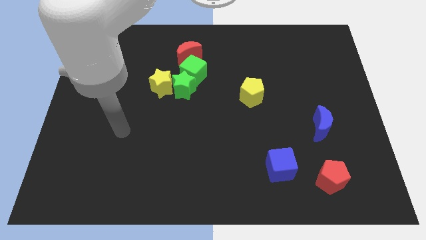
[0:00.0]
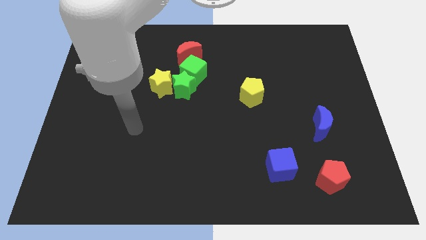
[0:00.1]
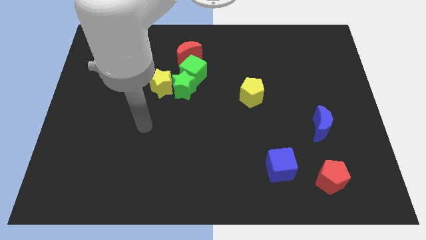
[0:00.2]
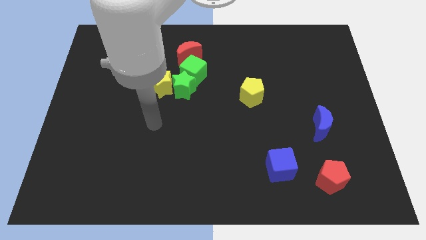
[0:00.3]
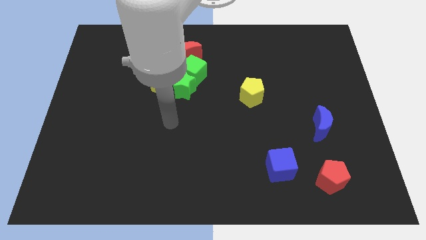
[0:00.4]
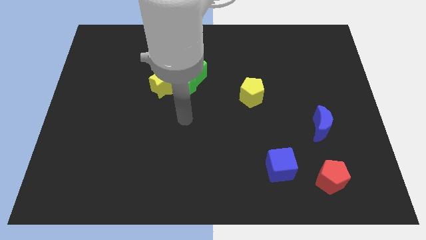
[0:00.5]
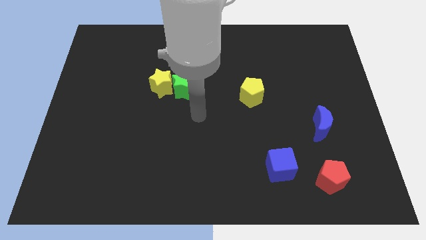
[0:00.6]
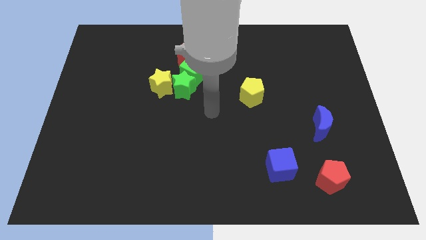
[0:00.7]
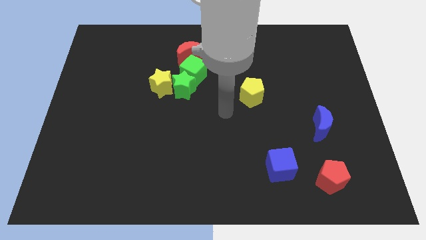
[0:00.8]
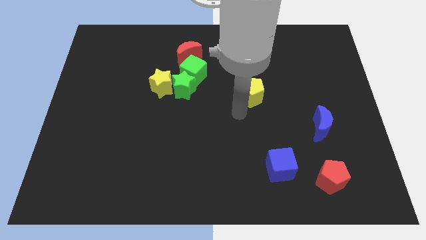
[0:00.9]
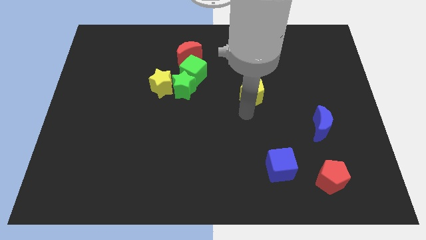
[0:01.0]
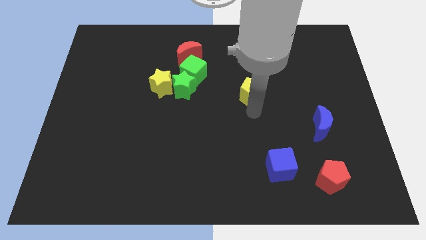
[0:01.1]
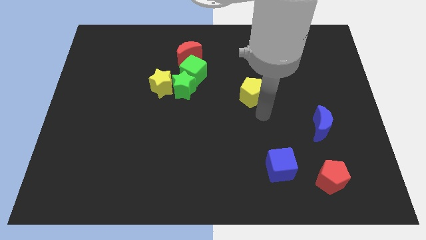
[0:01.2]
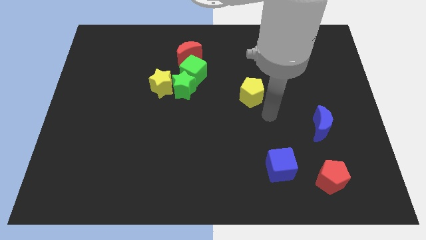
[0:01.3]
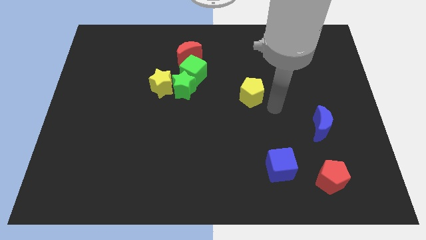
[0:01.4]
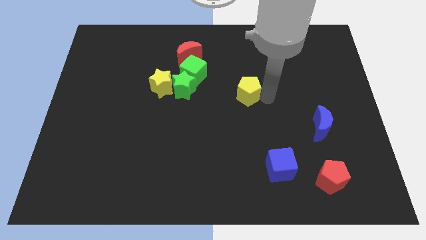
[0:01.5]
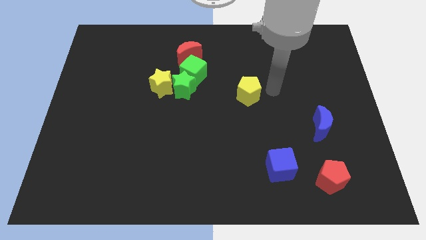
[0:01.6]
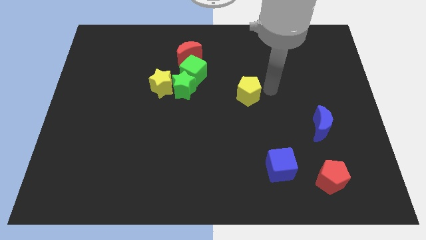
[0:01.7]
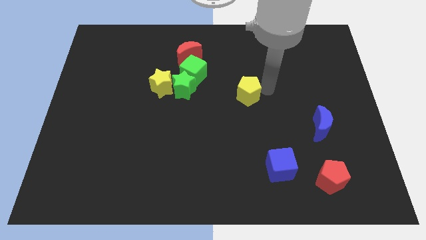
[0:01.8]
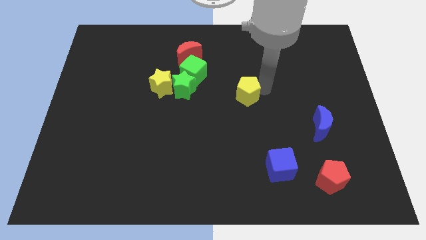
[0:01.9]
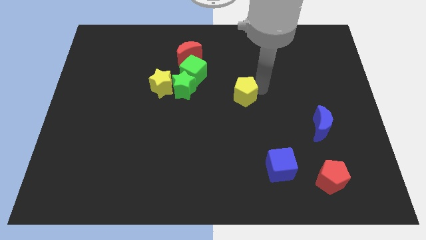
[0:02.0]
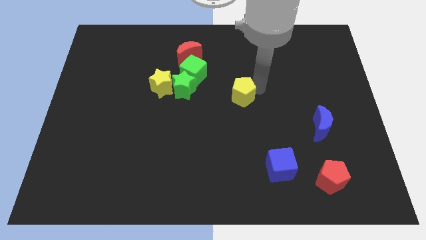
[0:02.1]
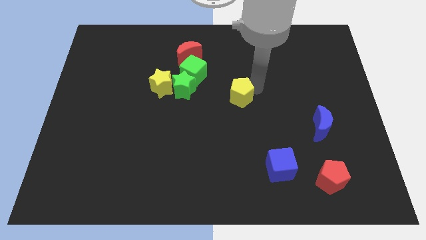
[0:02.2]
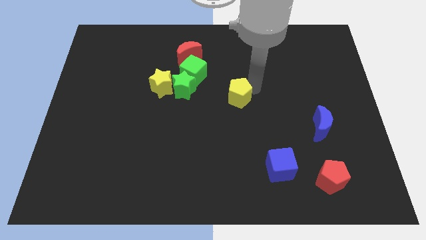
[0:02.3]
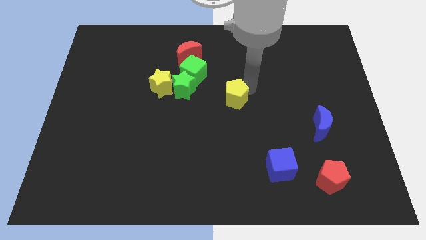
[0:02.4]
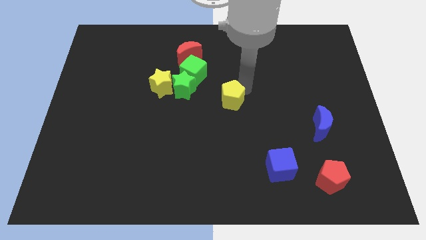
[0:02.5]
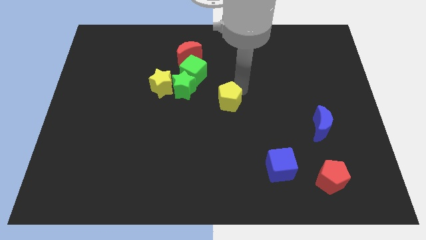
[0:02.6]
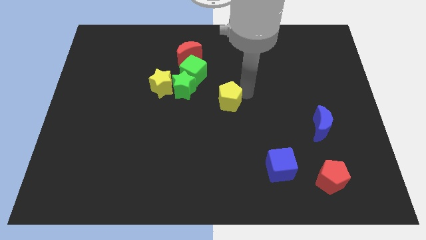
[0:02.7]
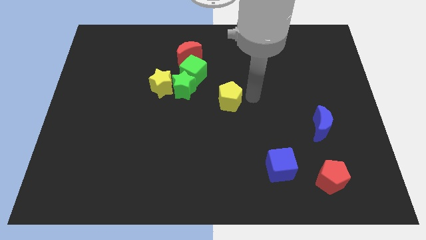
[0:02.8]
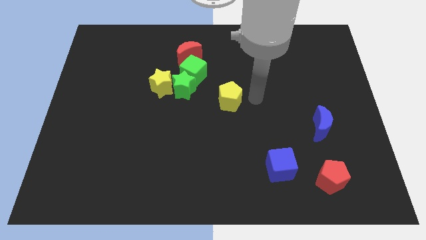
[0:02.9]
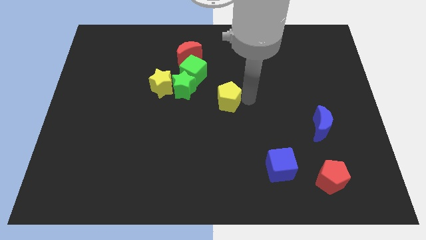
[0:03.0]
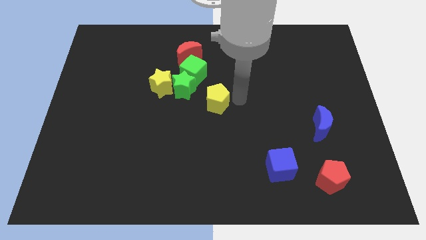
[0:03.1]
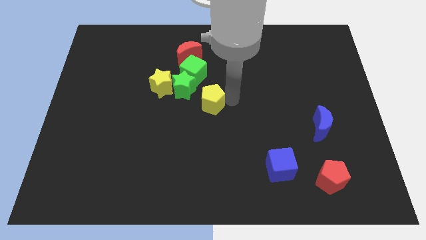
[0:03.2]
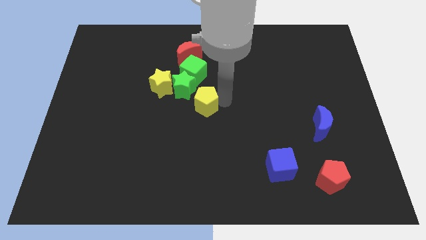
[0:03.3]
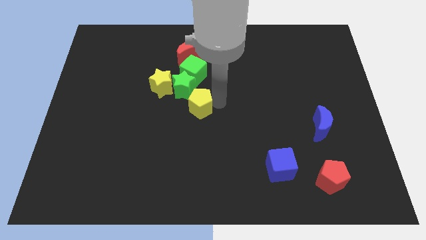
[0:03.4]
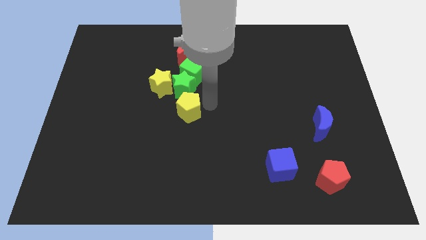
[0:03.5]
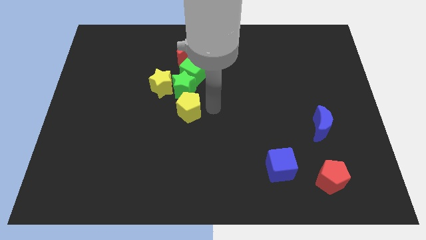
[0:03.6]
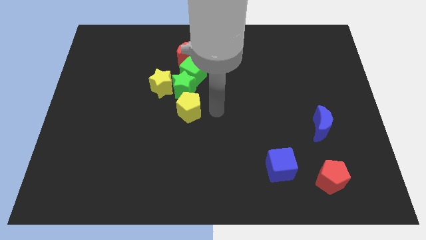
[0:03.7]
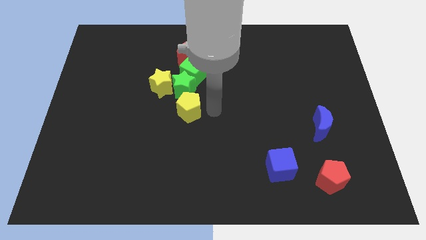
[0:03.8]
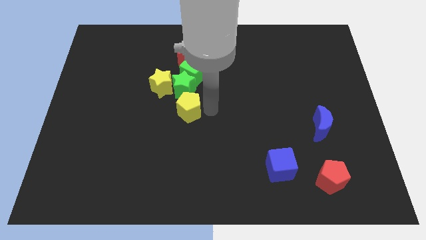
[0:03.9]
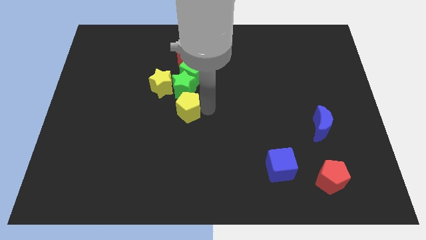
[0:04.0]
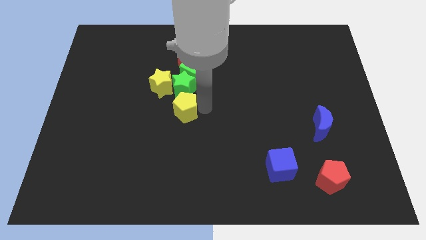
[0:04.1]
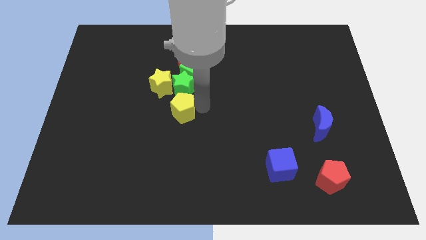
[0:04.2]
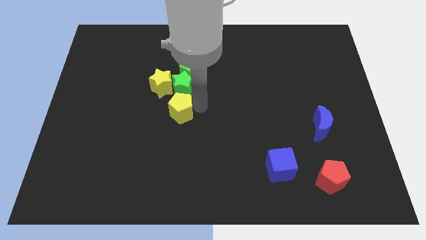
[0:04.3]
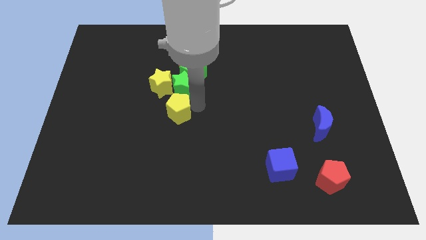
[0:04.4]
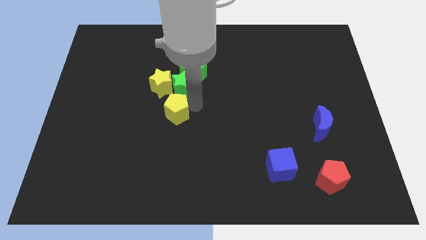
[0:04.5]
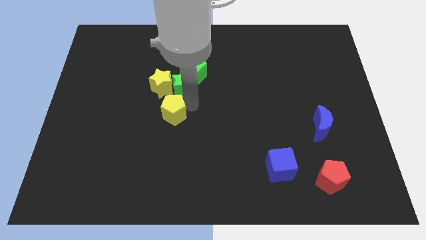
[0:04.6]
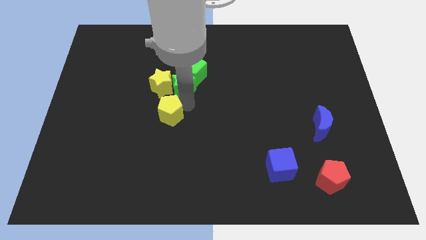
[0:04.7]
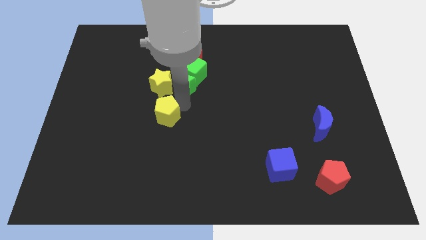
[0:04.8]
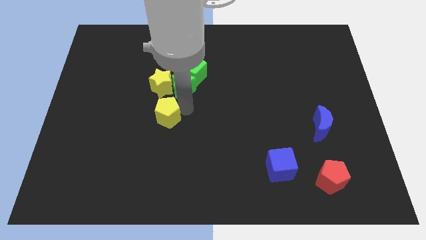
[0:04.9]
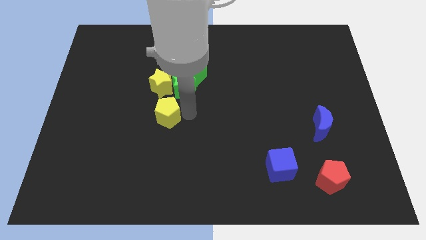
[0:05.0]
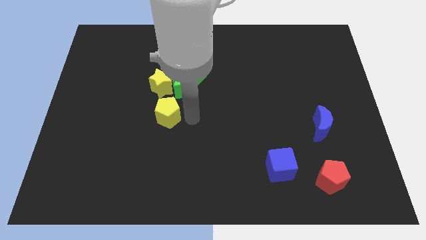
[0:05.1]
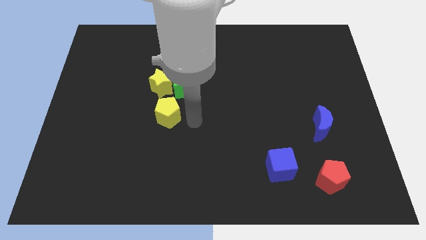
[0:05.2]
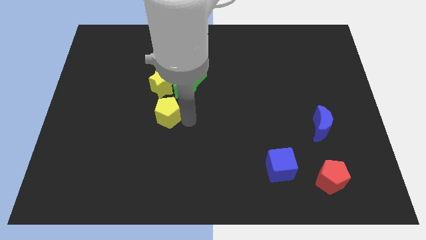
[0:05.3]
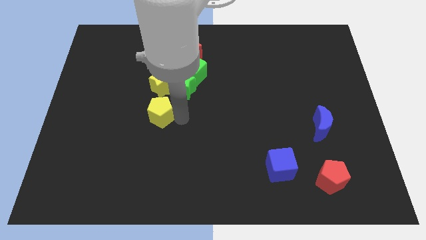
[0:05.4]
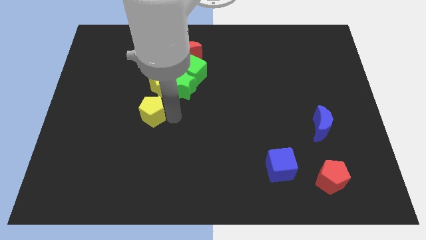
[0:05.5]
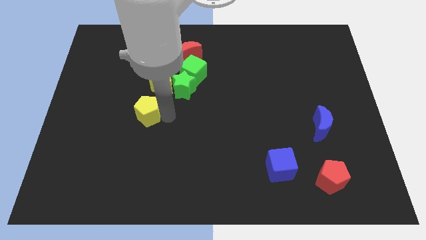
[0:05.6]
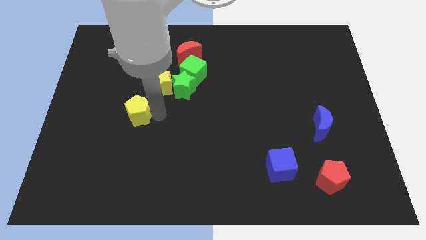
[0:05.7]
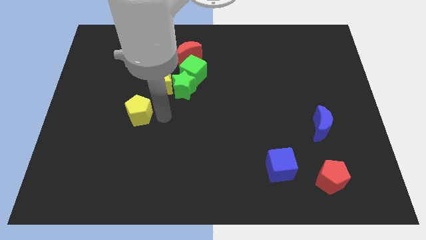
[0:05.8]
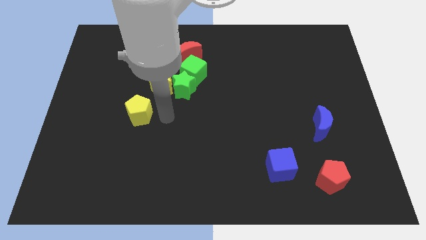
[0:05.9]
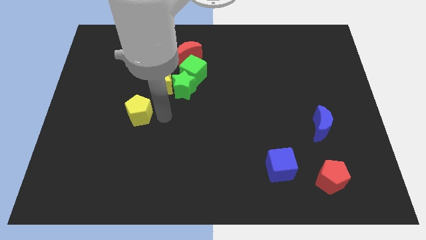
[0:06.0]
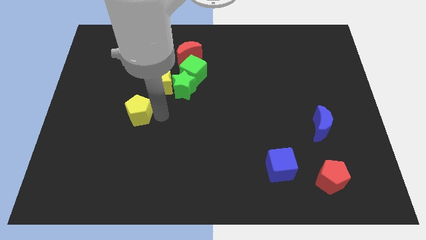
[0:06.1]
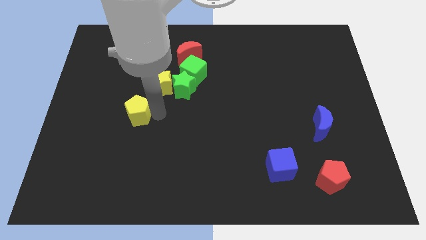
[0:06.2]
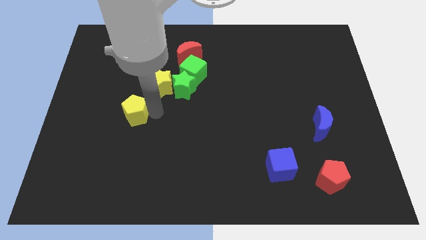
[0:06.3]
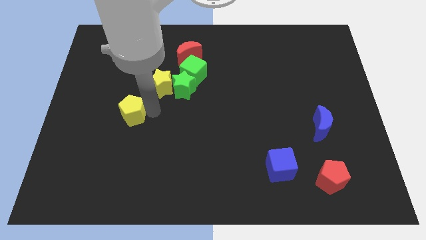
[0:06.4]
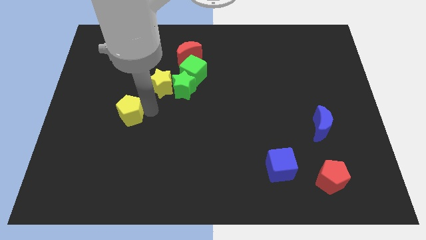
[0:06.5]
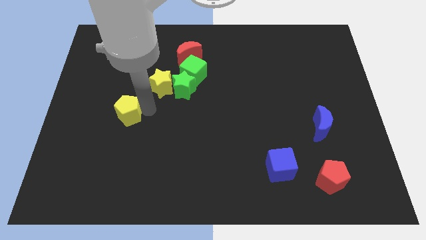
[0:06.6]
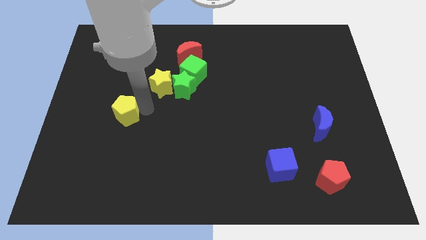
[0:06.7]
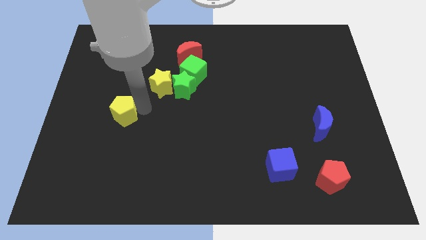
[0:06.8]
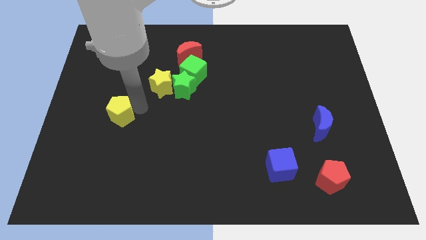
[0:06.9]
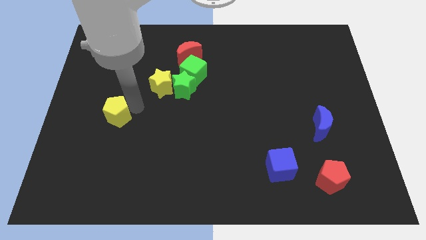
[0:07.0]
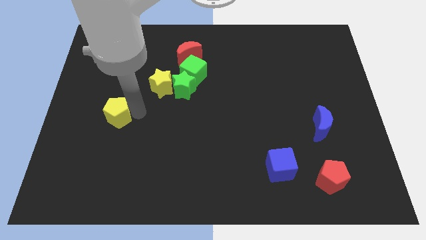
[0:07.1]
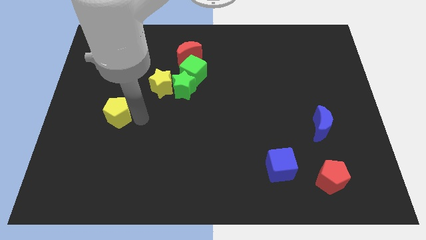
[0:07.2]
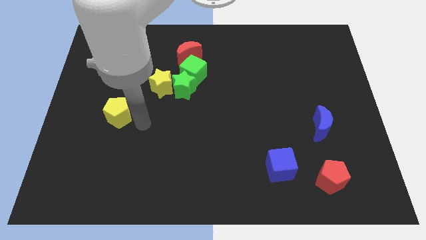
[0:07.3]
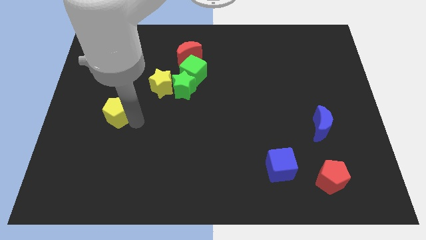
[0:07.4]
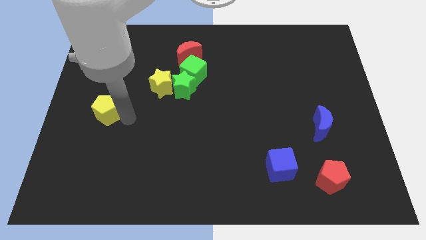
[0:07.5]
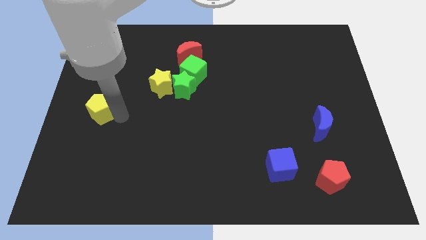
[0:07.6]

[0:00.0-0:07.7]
move the yellow pentagon to the left side of the board
